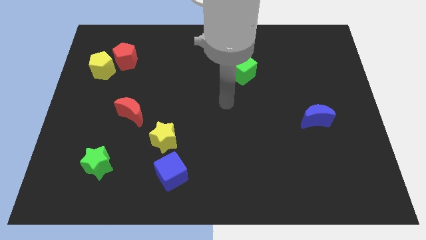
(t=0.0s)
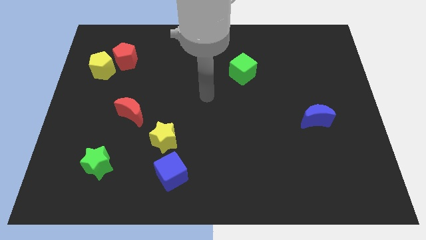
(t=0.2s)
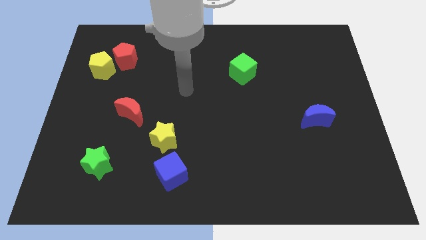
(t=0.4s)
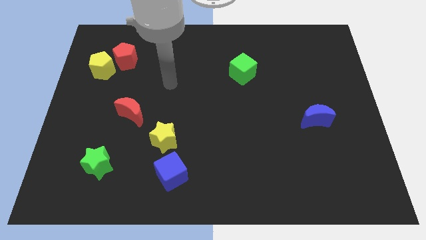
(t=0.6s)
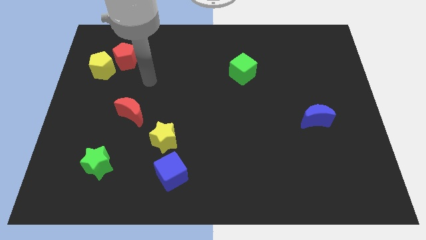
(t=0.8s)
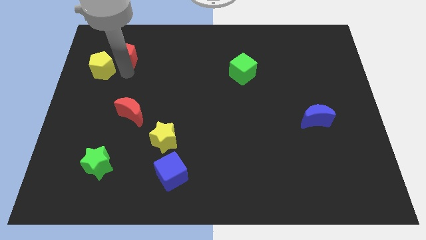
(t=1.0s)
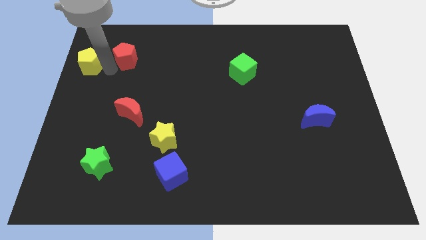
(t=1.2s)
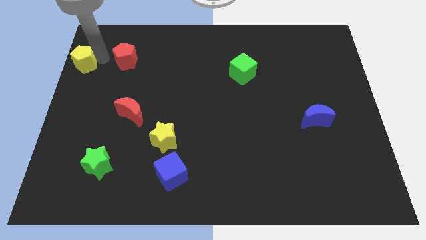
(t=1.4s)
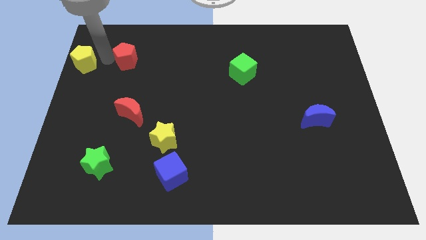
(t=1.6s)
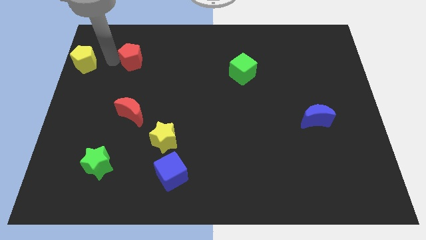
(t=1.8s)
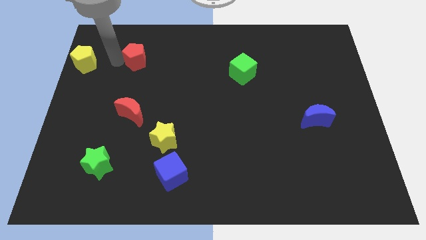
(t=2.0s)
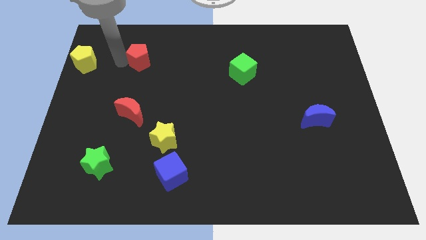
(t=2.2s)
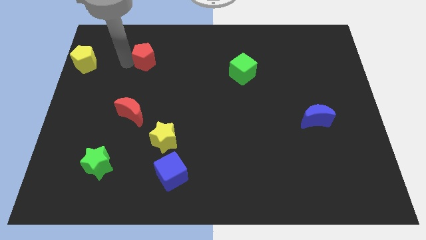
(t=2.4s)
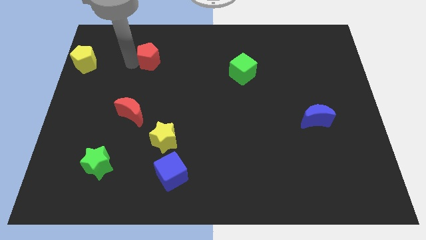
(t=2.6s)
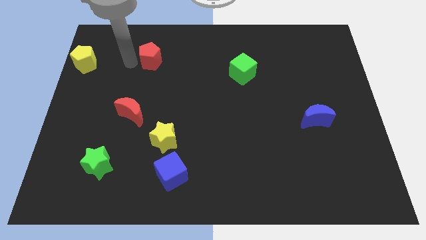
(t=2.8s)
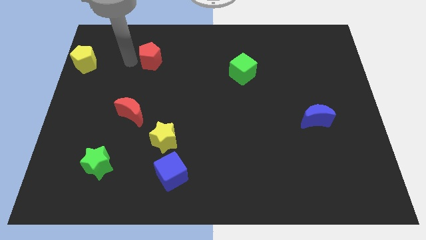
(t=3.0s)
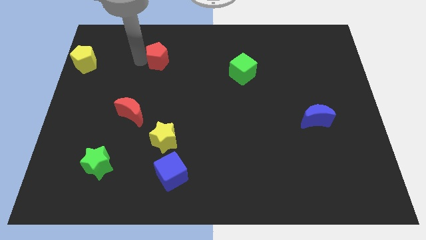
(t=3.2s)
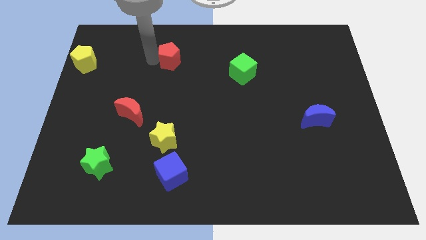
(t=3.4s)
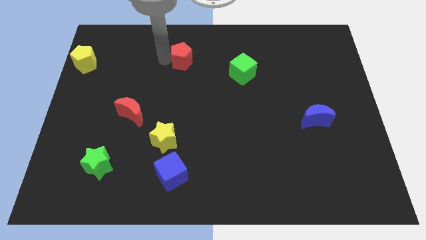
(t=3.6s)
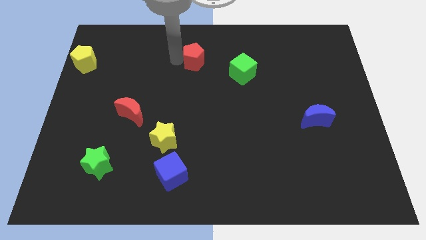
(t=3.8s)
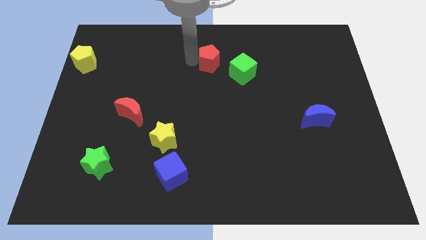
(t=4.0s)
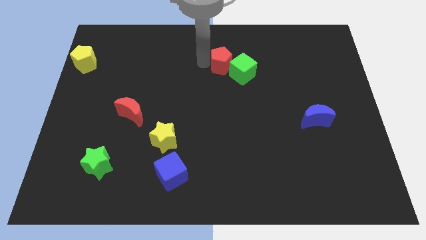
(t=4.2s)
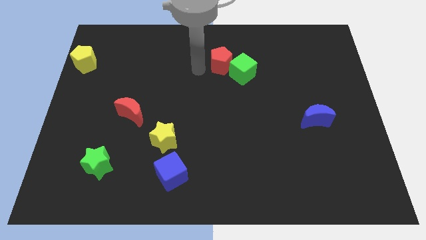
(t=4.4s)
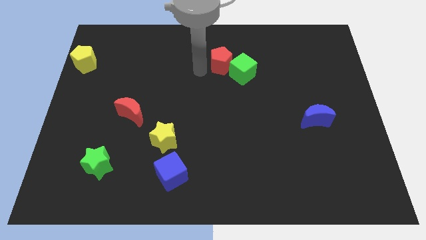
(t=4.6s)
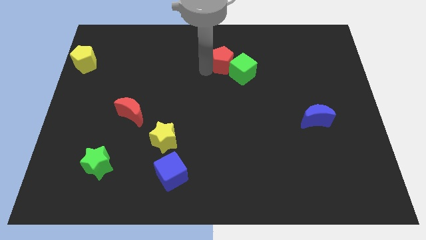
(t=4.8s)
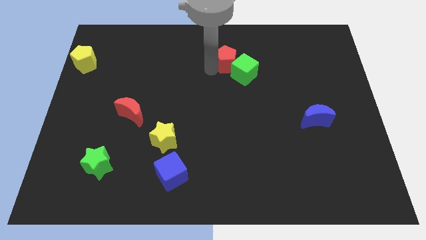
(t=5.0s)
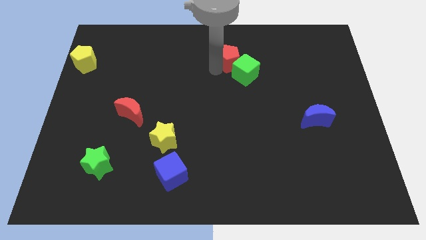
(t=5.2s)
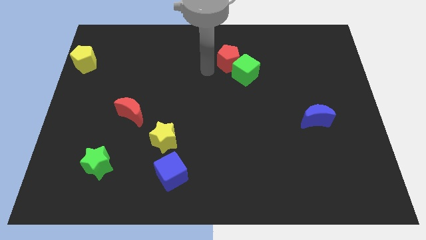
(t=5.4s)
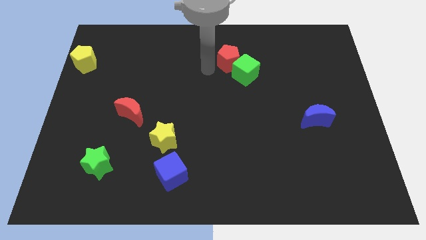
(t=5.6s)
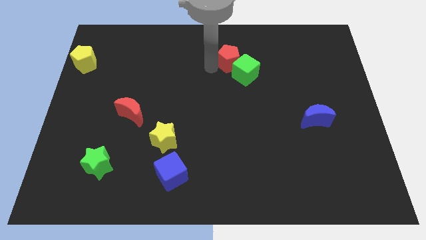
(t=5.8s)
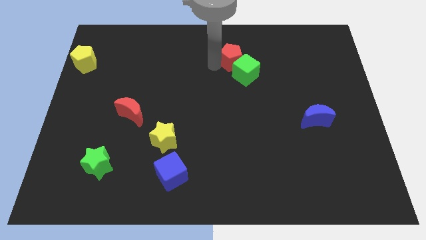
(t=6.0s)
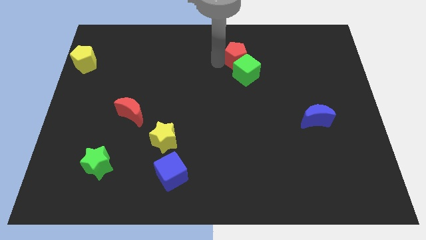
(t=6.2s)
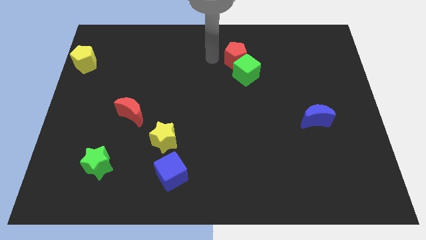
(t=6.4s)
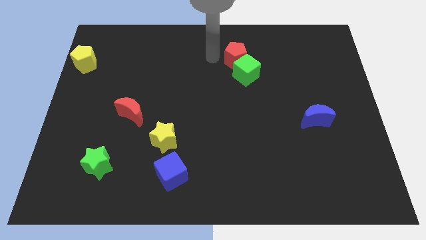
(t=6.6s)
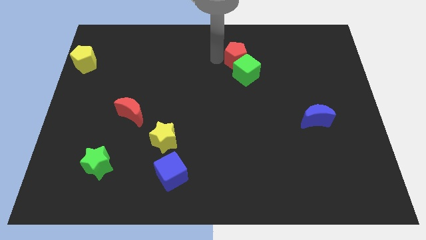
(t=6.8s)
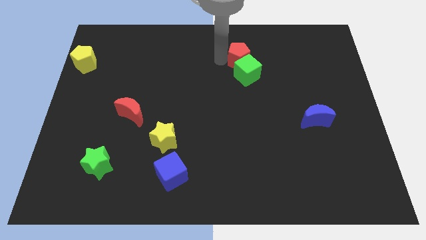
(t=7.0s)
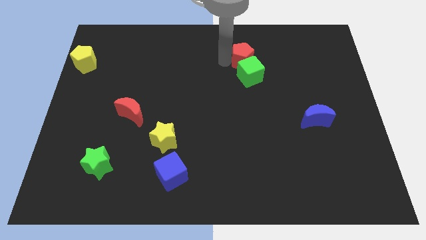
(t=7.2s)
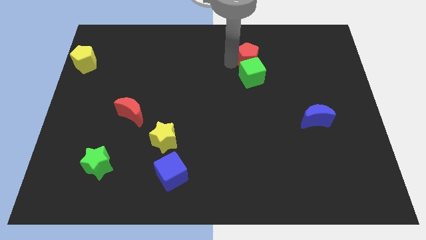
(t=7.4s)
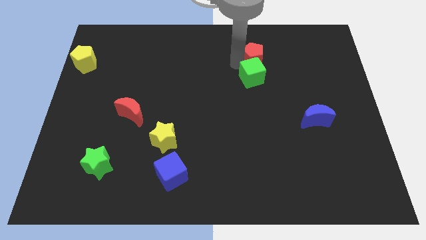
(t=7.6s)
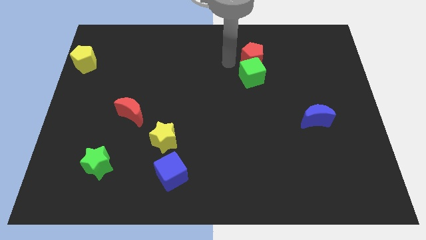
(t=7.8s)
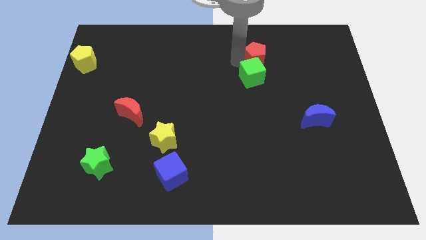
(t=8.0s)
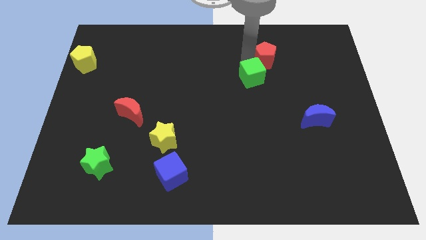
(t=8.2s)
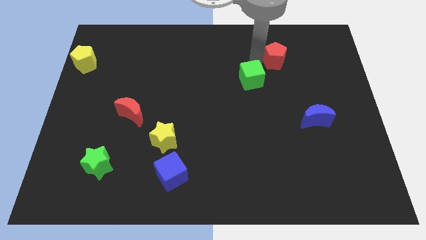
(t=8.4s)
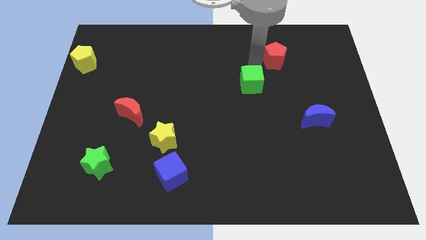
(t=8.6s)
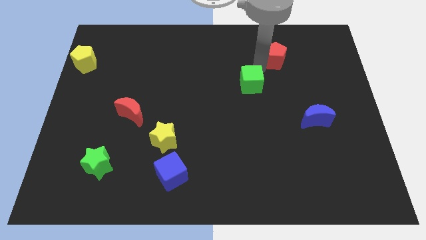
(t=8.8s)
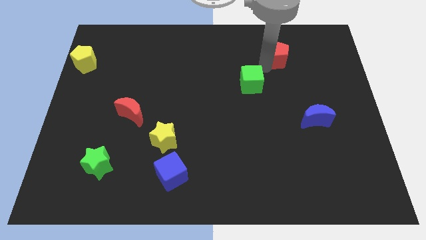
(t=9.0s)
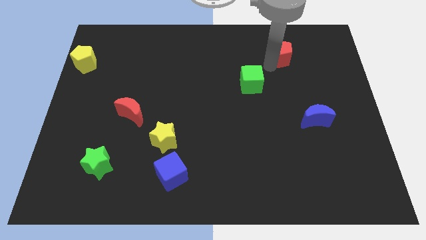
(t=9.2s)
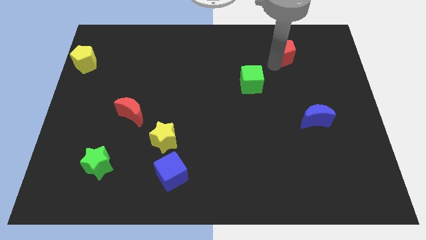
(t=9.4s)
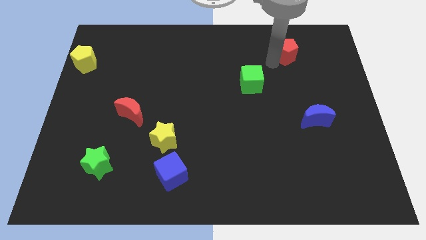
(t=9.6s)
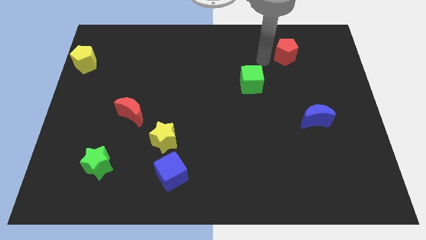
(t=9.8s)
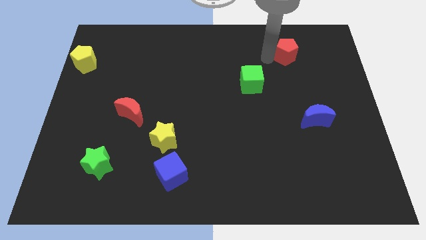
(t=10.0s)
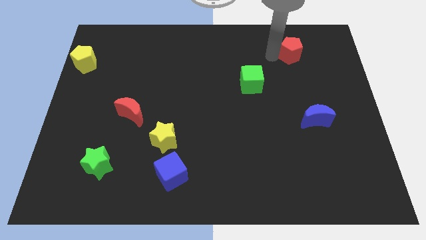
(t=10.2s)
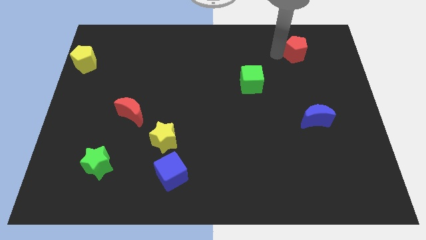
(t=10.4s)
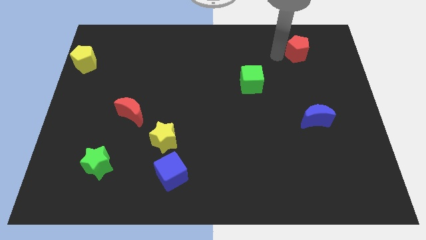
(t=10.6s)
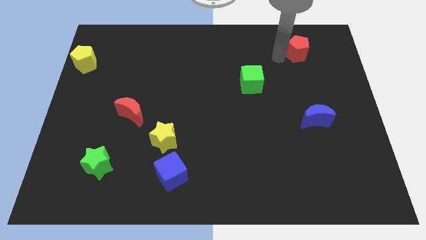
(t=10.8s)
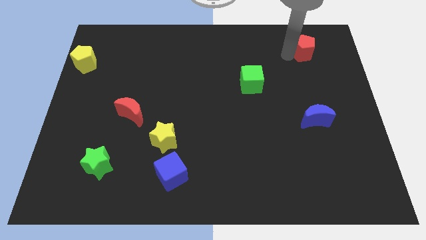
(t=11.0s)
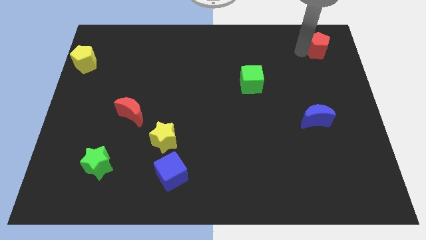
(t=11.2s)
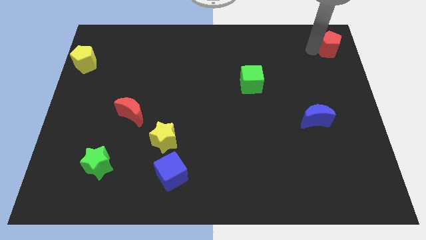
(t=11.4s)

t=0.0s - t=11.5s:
put the red pentagon to the top right

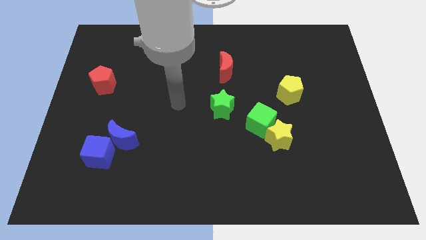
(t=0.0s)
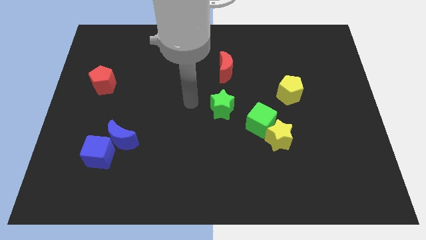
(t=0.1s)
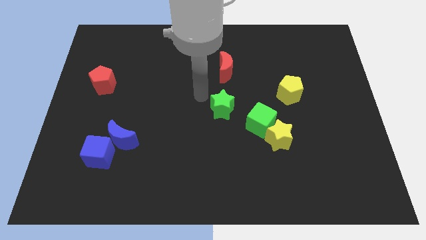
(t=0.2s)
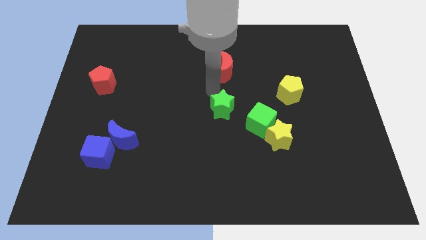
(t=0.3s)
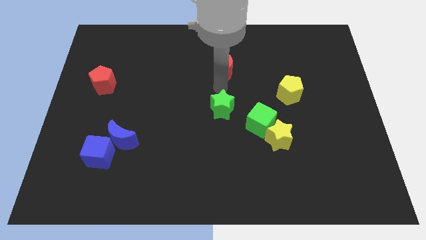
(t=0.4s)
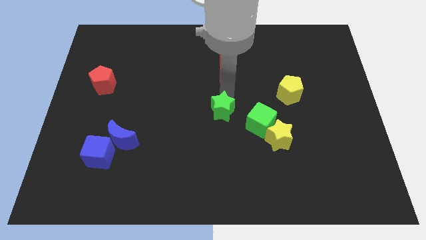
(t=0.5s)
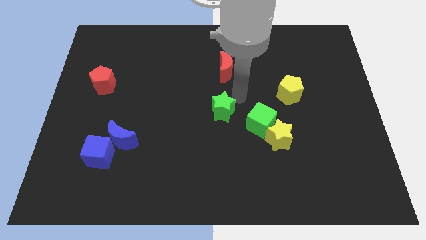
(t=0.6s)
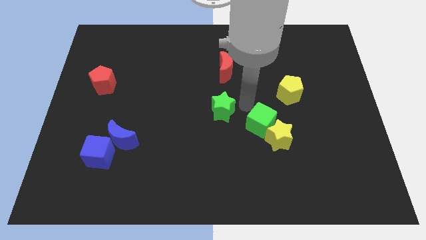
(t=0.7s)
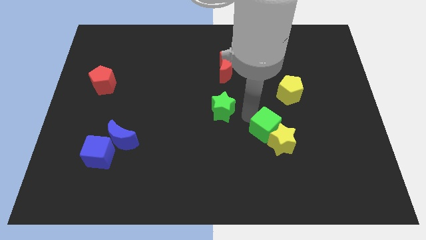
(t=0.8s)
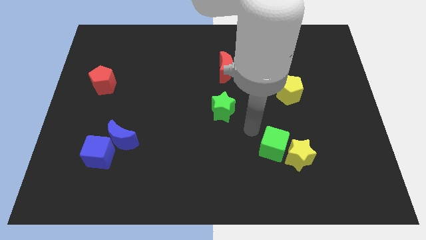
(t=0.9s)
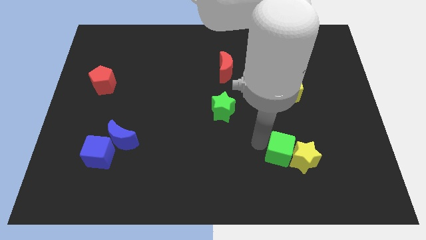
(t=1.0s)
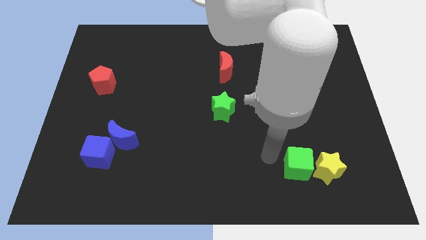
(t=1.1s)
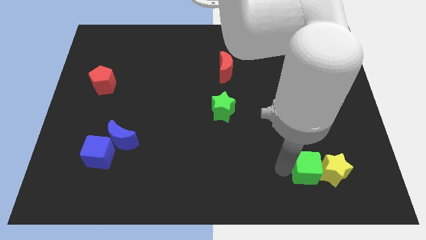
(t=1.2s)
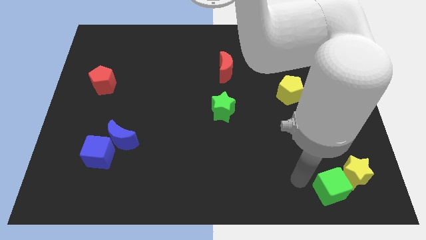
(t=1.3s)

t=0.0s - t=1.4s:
push the yellow star to the bottom right
